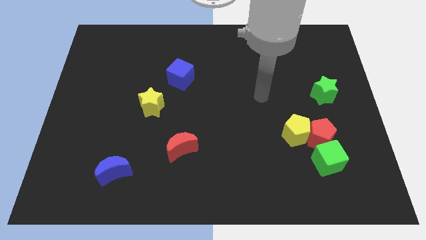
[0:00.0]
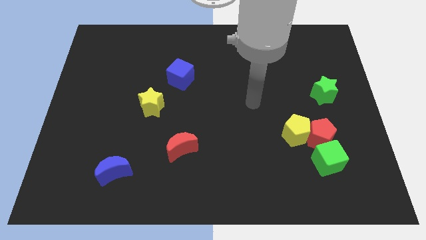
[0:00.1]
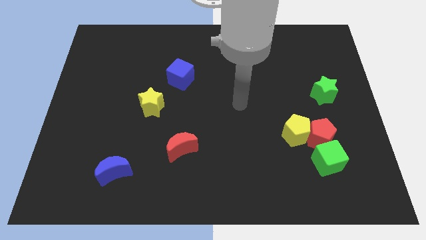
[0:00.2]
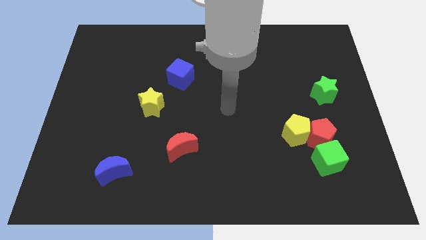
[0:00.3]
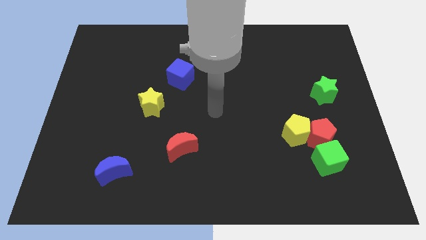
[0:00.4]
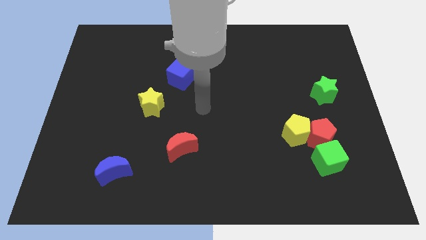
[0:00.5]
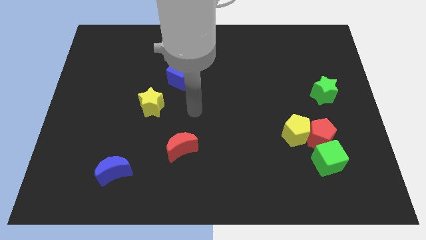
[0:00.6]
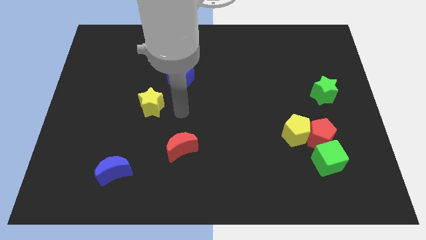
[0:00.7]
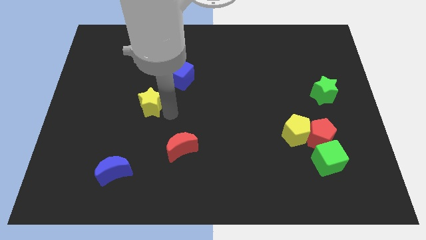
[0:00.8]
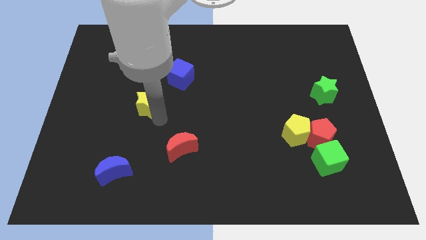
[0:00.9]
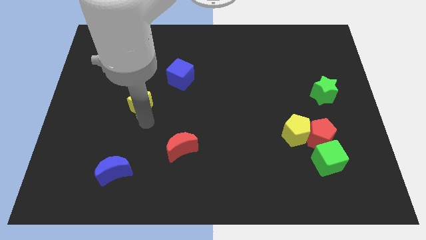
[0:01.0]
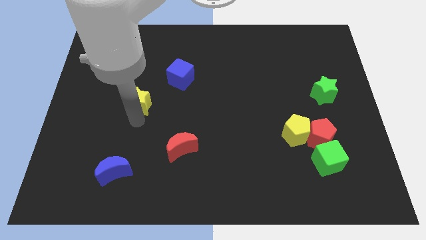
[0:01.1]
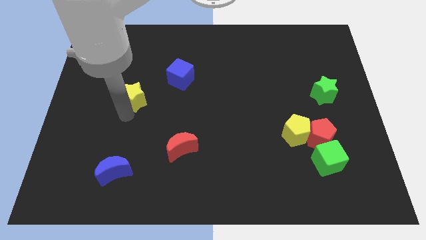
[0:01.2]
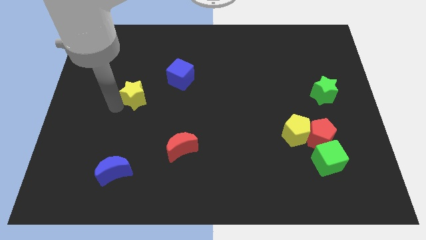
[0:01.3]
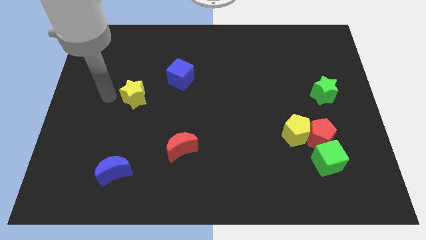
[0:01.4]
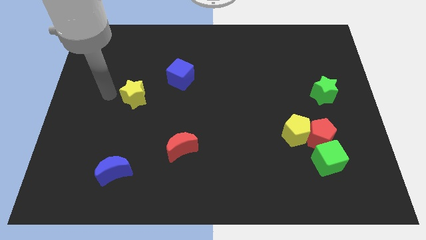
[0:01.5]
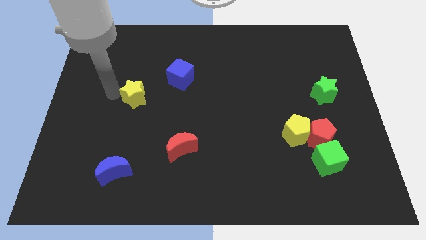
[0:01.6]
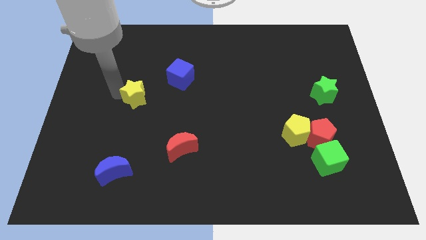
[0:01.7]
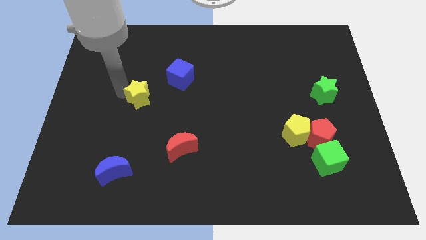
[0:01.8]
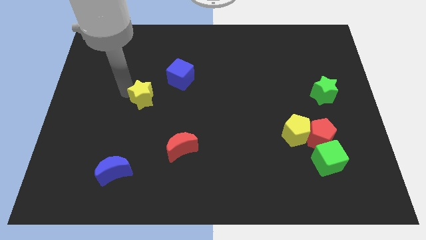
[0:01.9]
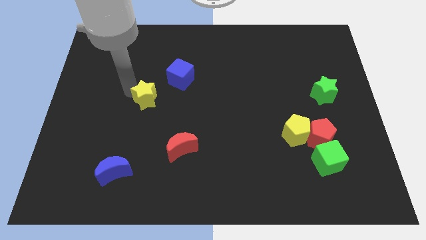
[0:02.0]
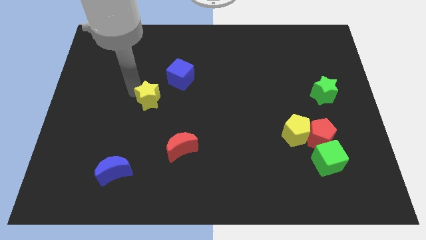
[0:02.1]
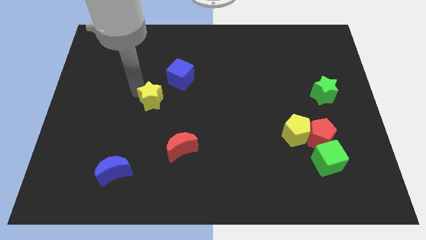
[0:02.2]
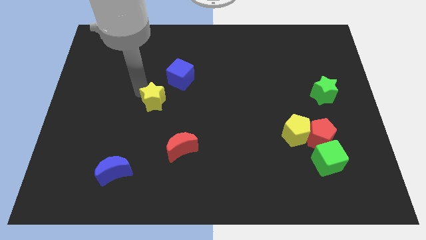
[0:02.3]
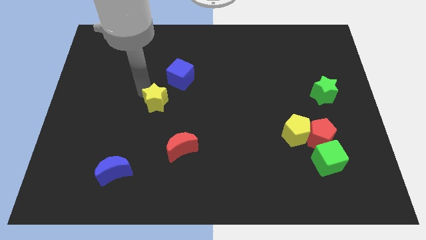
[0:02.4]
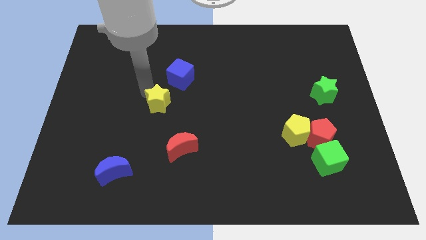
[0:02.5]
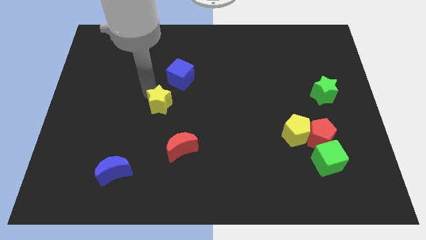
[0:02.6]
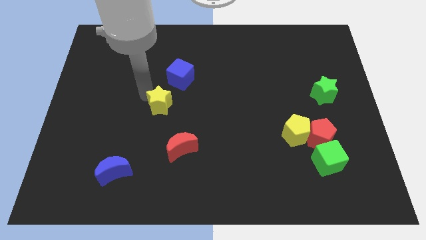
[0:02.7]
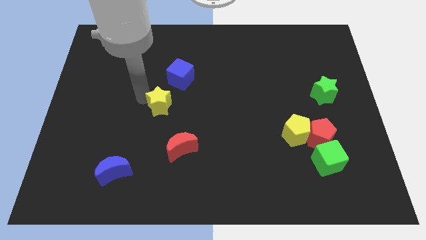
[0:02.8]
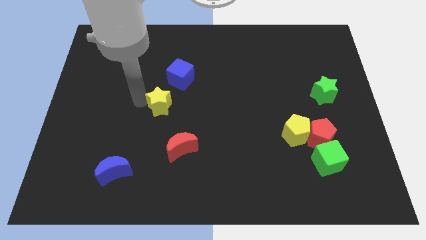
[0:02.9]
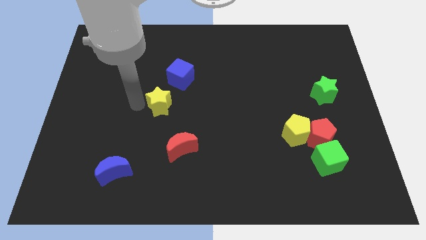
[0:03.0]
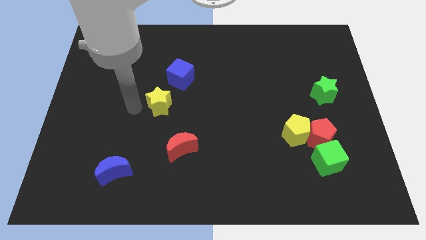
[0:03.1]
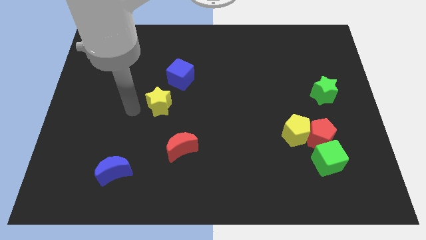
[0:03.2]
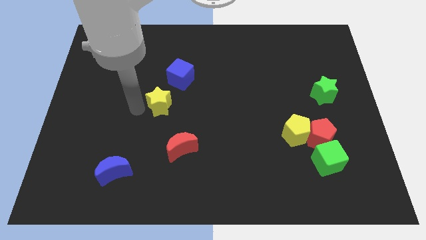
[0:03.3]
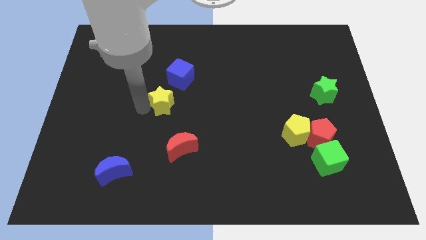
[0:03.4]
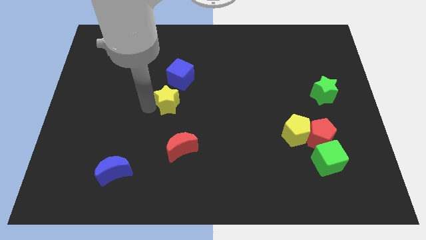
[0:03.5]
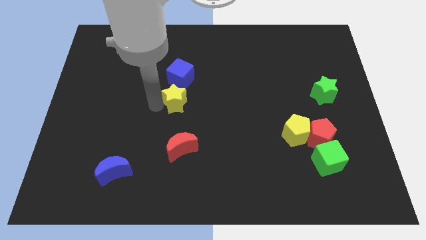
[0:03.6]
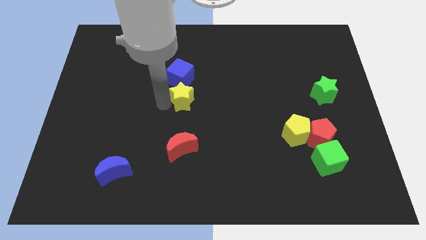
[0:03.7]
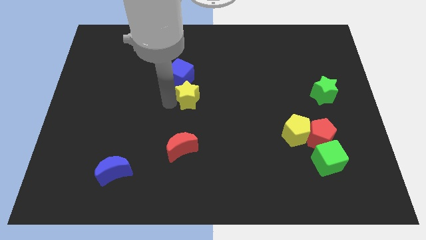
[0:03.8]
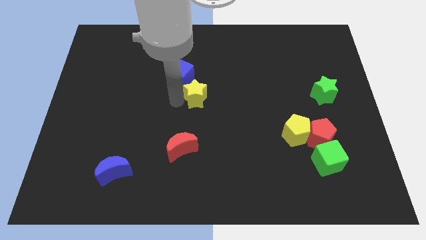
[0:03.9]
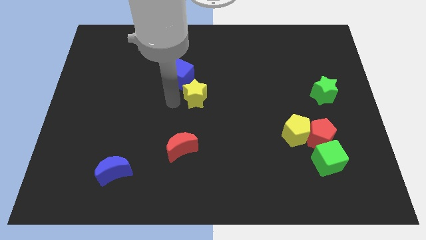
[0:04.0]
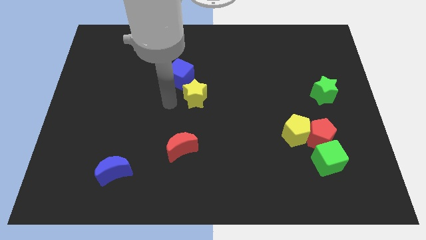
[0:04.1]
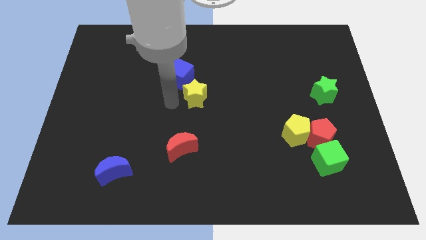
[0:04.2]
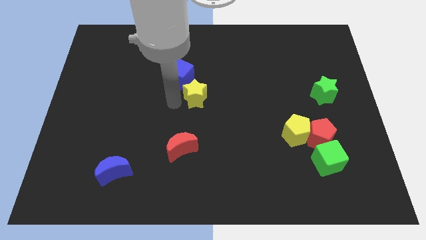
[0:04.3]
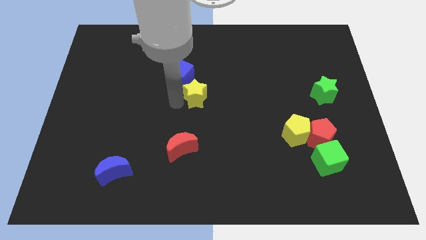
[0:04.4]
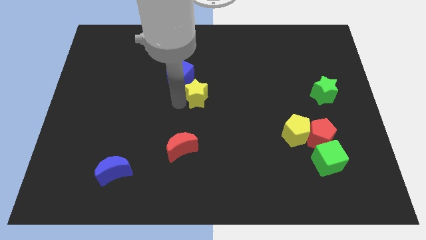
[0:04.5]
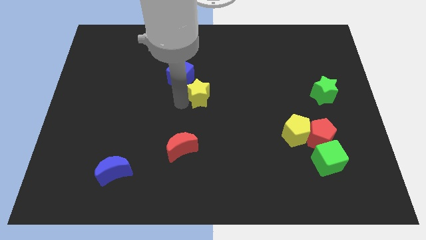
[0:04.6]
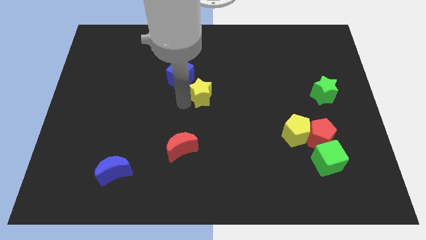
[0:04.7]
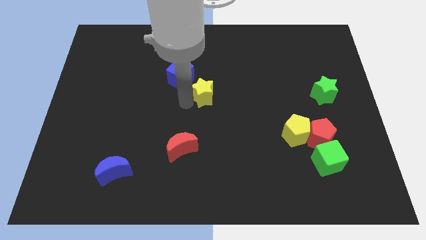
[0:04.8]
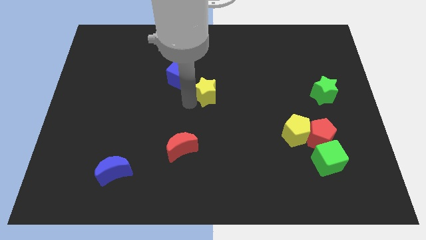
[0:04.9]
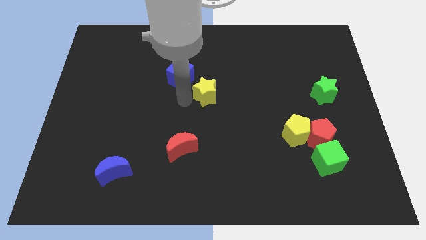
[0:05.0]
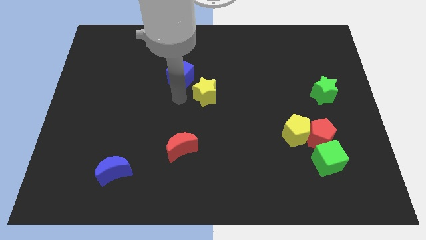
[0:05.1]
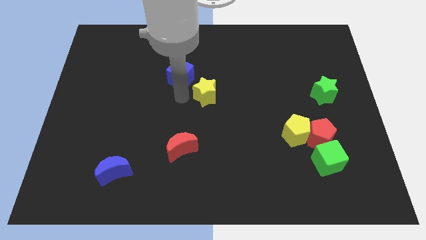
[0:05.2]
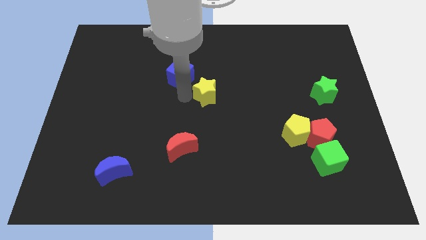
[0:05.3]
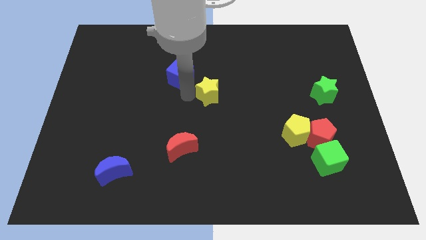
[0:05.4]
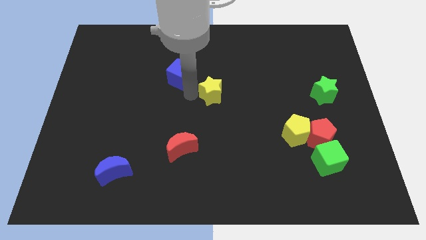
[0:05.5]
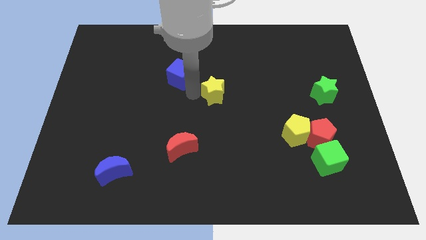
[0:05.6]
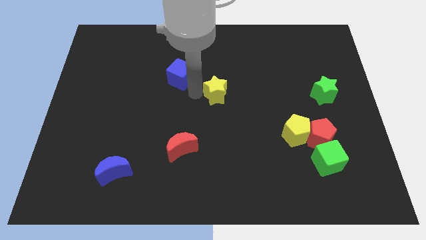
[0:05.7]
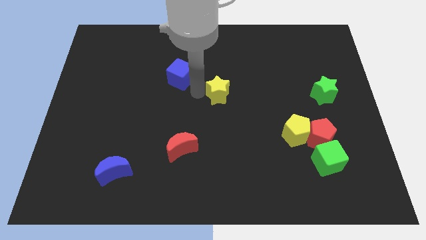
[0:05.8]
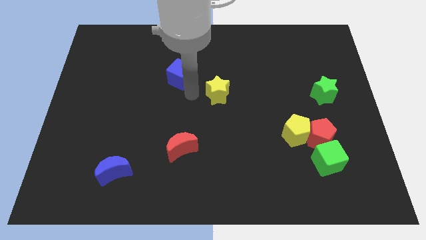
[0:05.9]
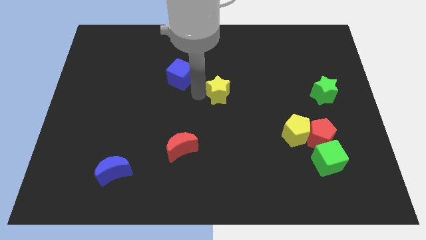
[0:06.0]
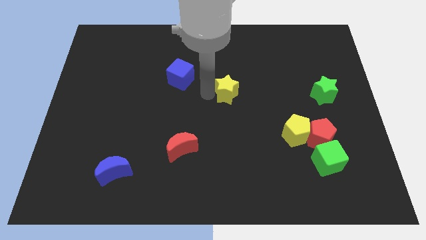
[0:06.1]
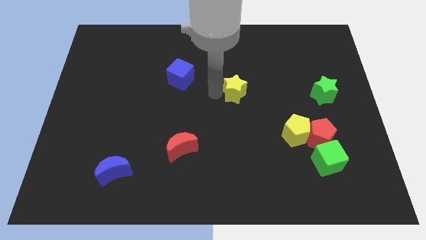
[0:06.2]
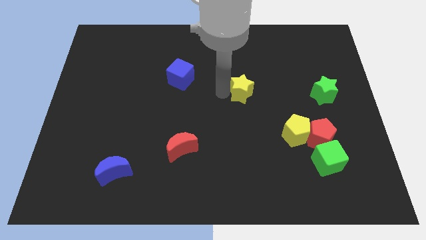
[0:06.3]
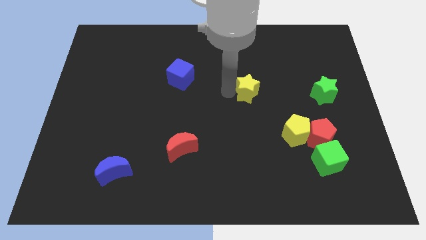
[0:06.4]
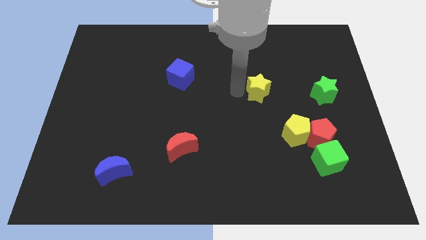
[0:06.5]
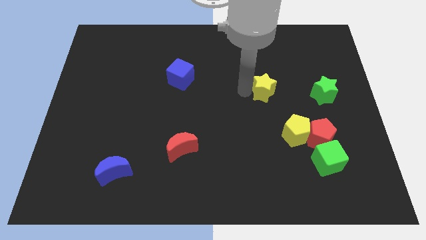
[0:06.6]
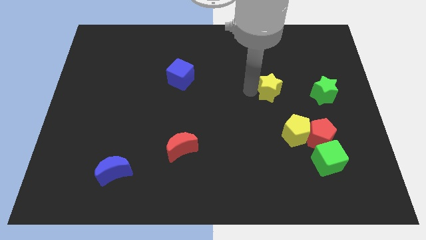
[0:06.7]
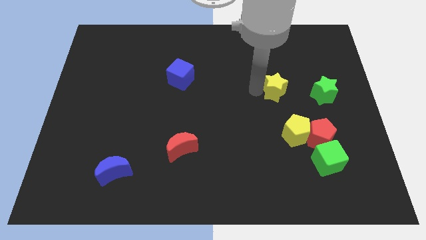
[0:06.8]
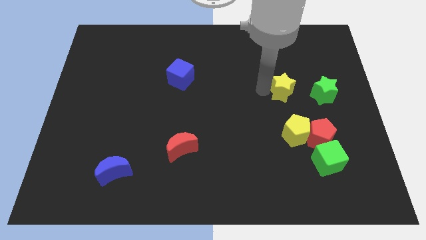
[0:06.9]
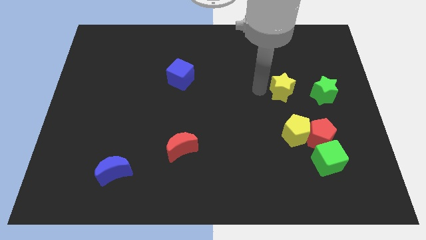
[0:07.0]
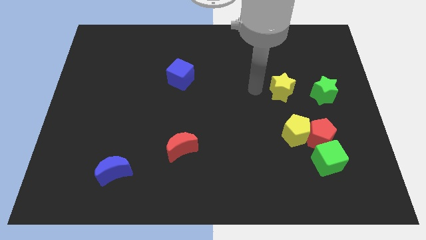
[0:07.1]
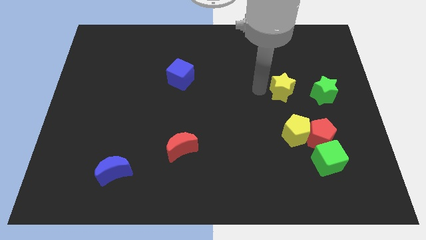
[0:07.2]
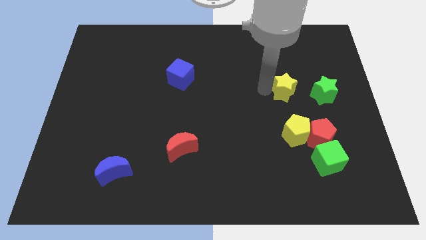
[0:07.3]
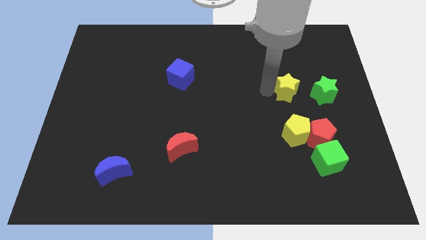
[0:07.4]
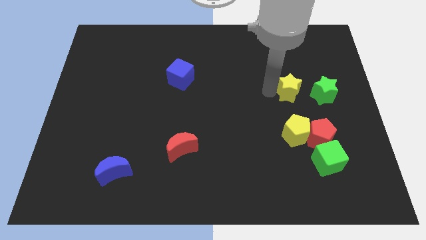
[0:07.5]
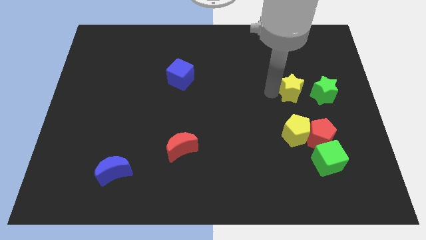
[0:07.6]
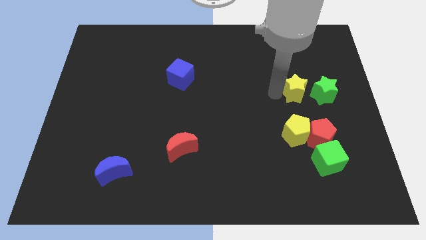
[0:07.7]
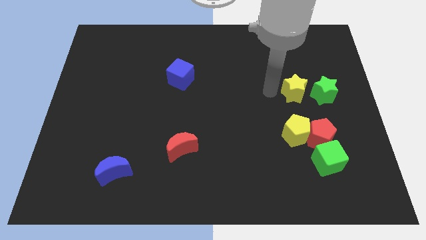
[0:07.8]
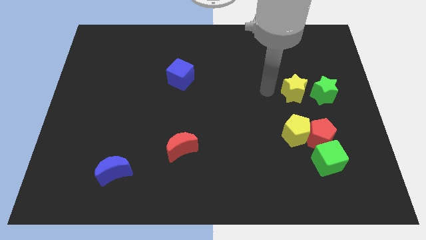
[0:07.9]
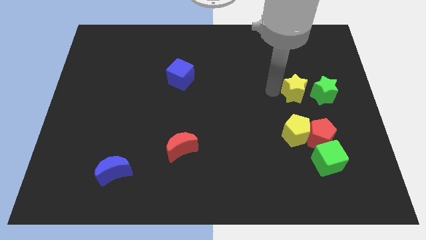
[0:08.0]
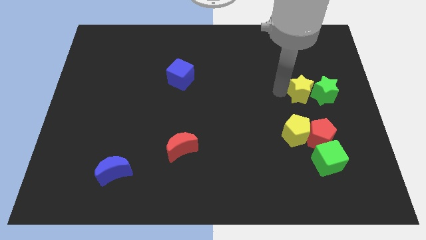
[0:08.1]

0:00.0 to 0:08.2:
move the yellow star towards the green star
